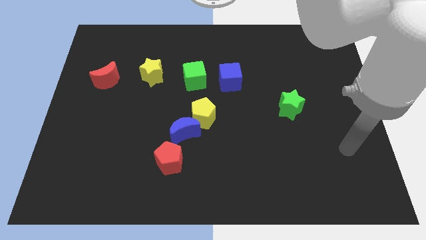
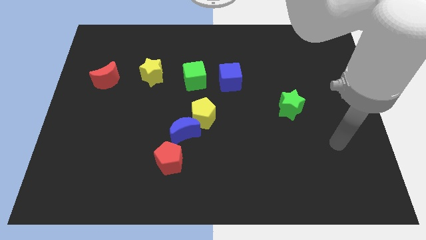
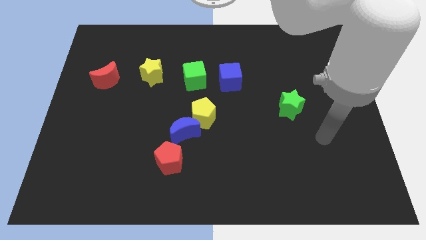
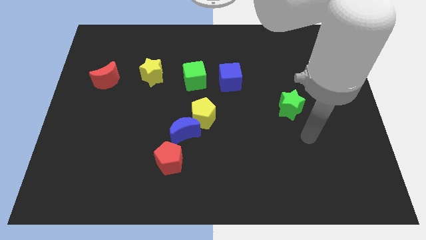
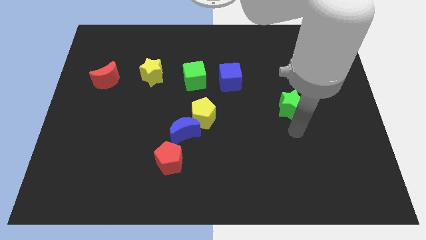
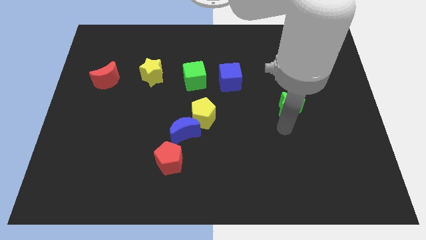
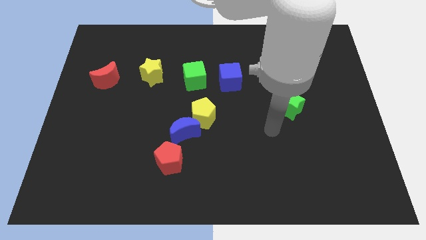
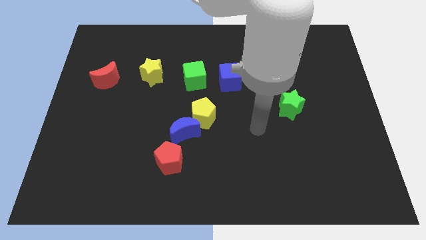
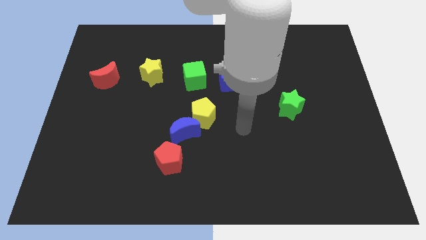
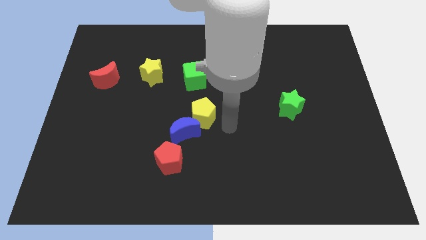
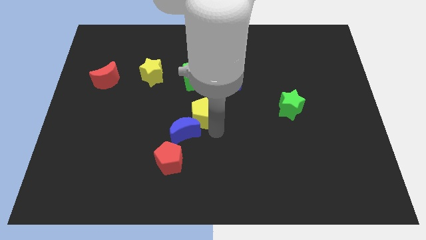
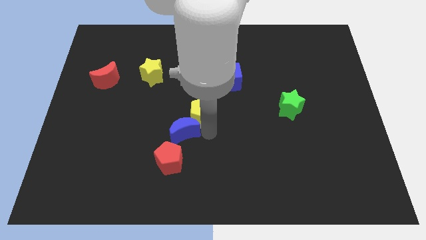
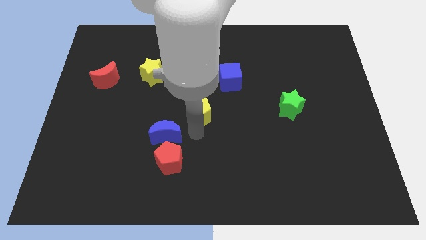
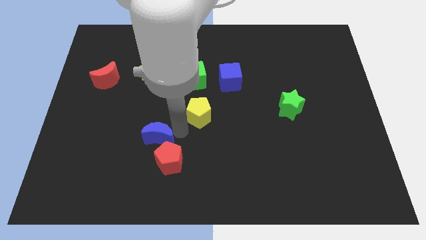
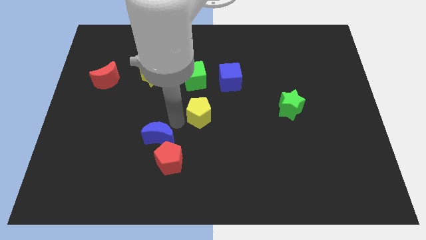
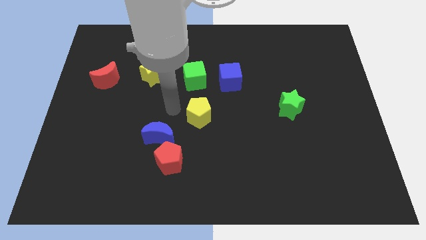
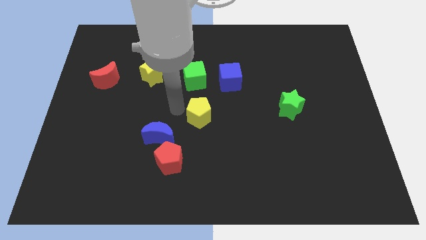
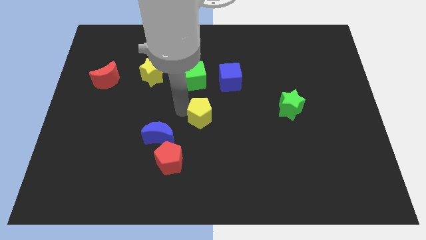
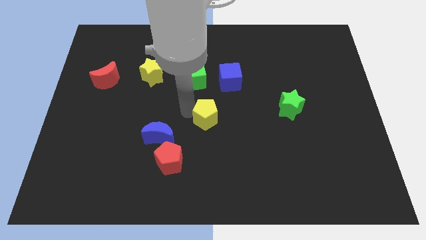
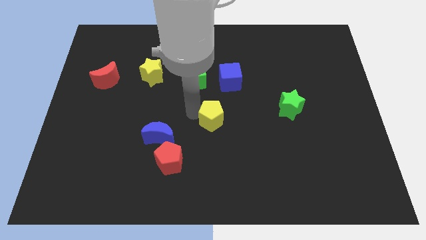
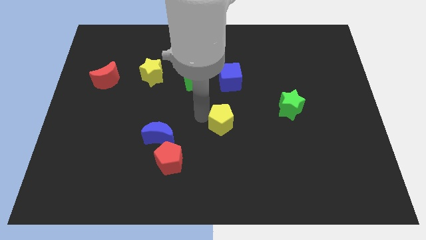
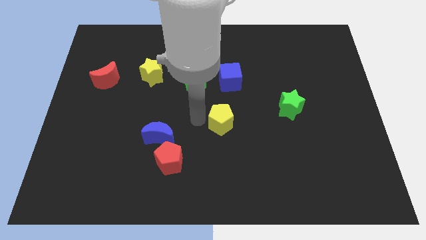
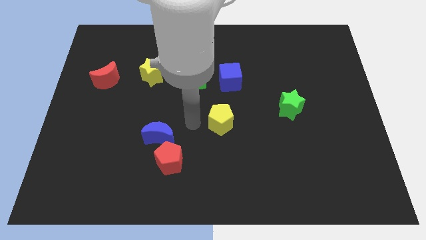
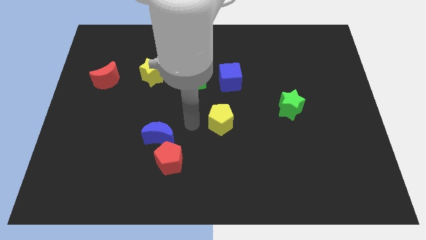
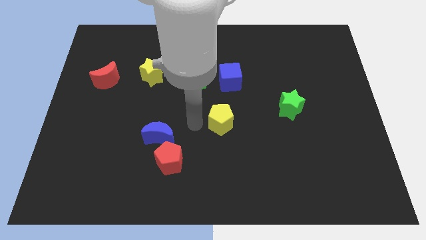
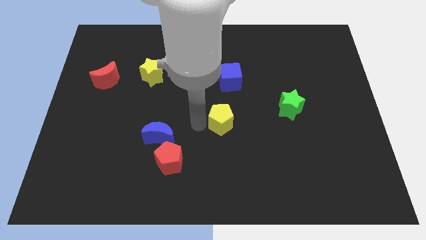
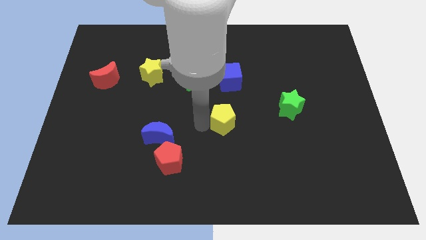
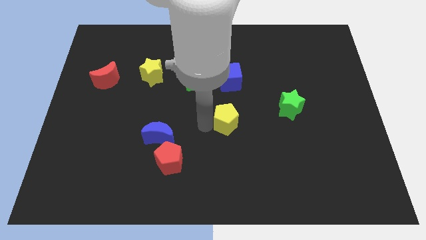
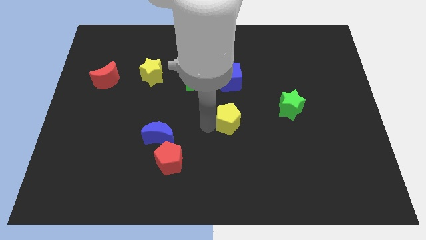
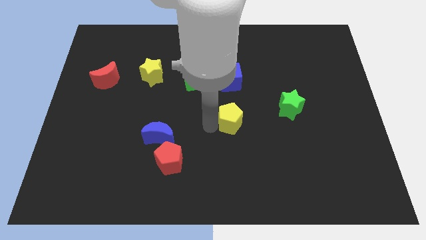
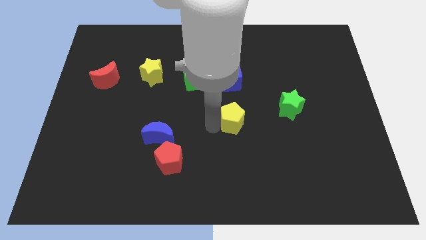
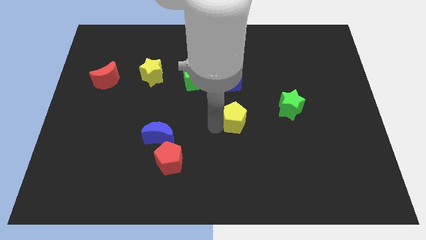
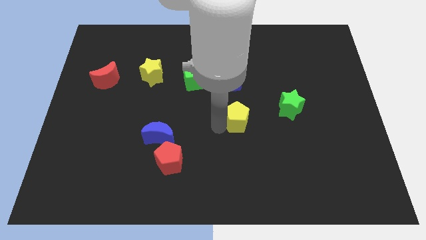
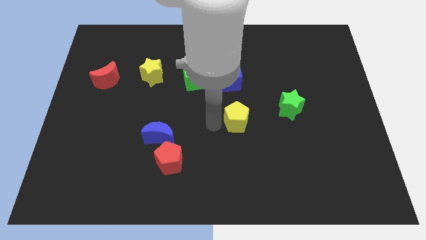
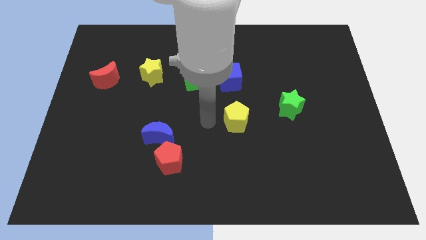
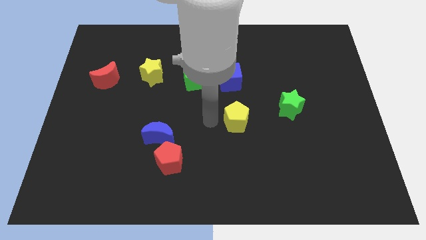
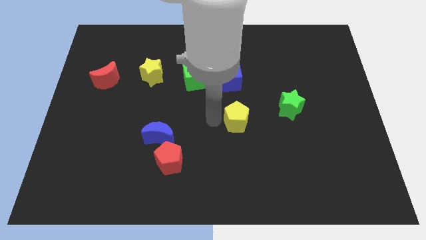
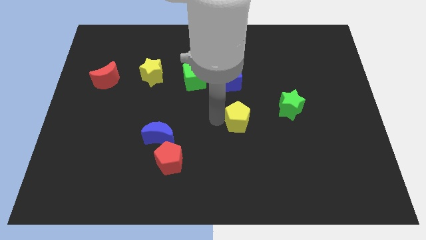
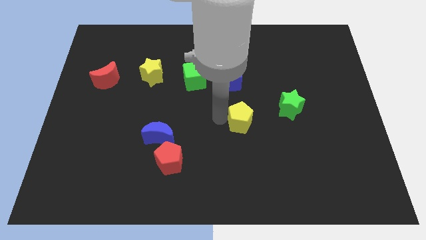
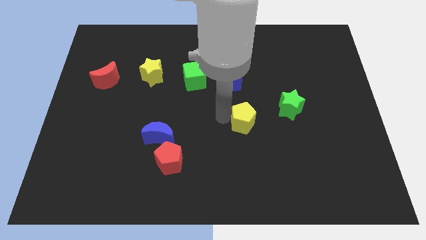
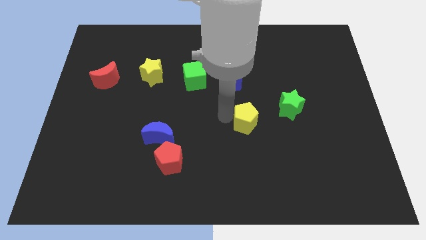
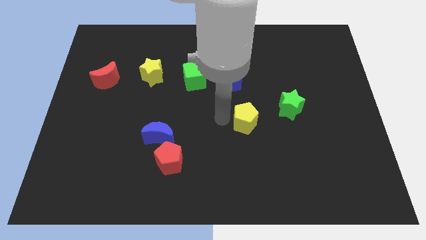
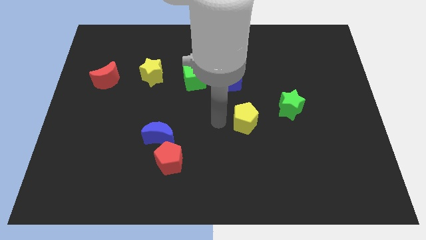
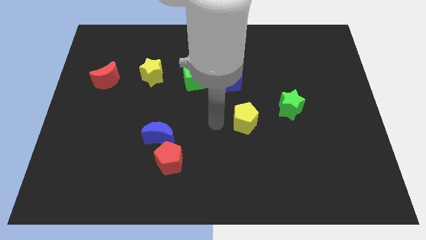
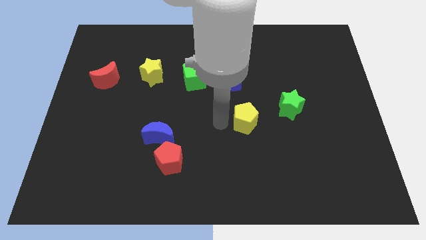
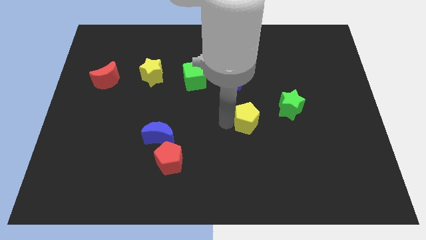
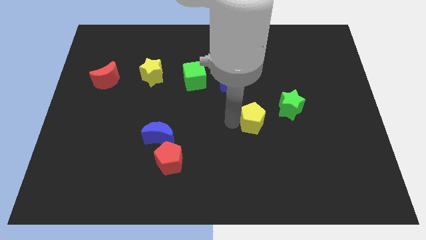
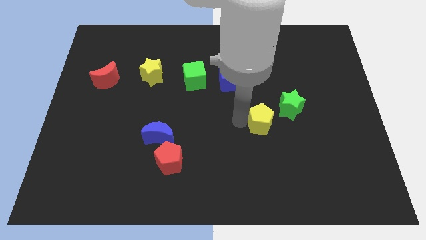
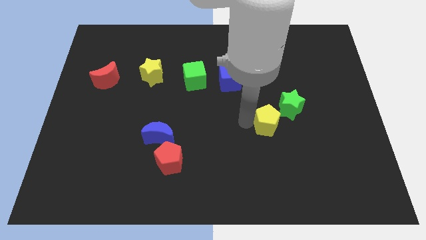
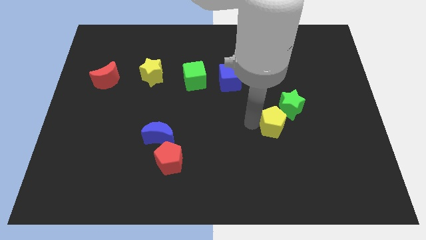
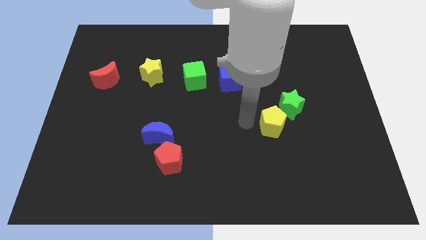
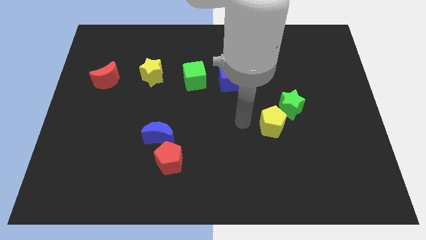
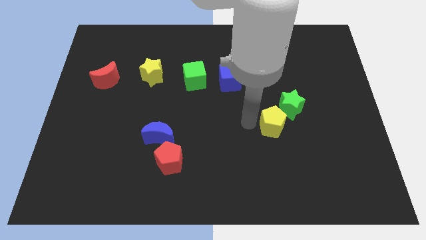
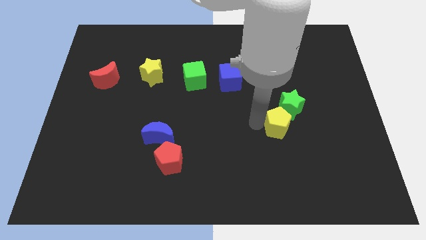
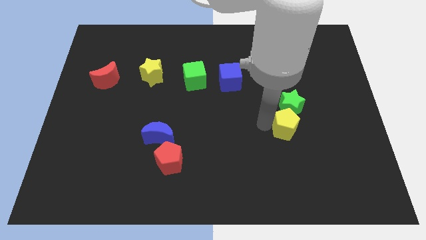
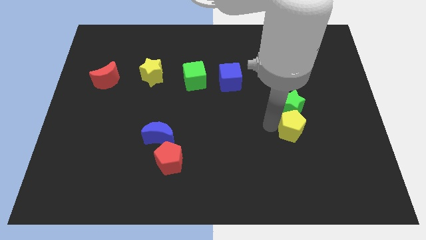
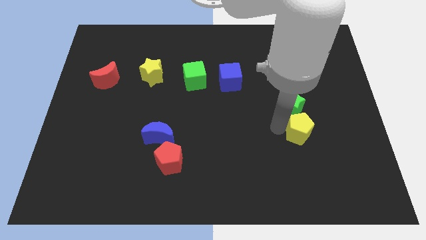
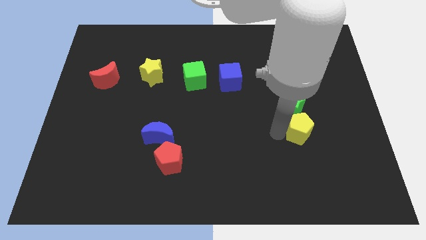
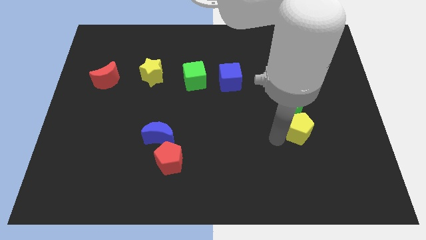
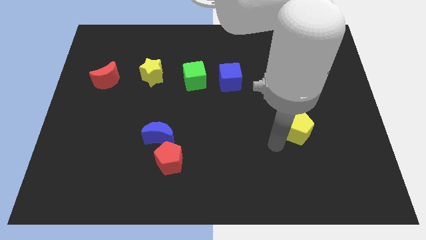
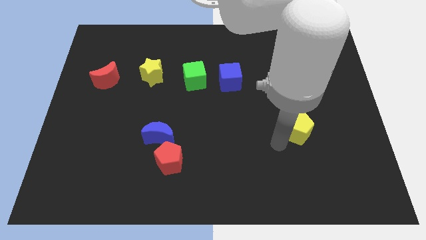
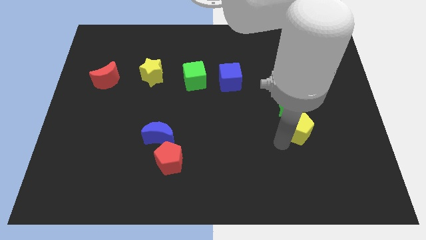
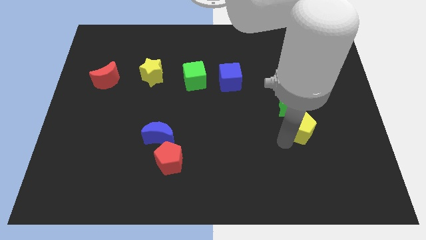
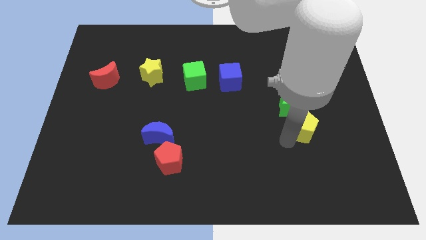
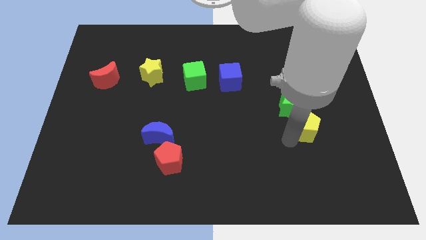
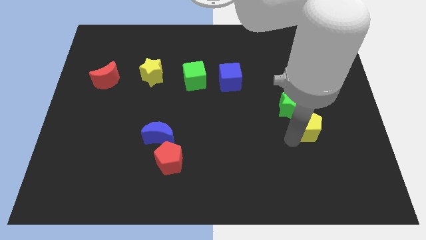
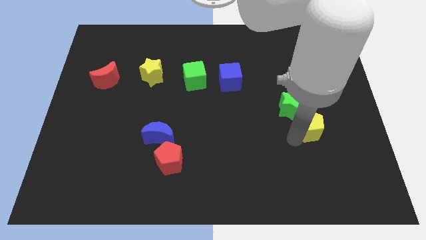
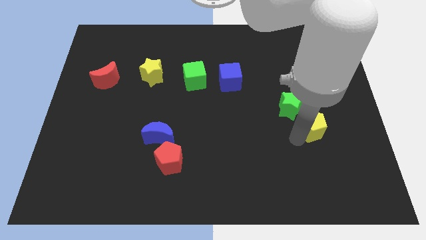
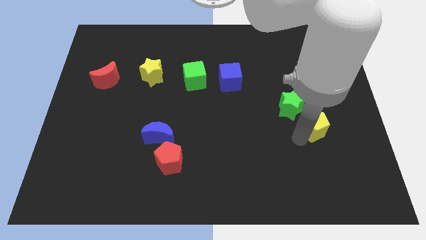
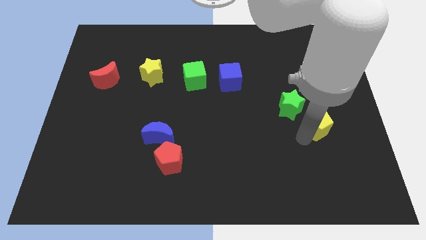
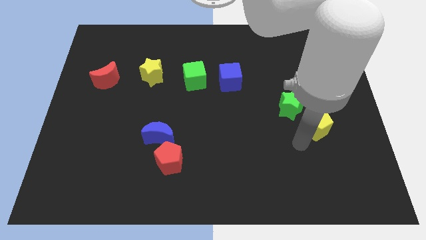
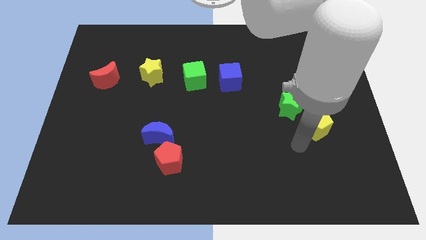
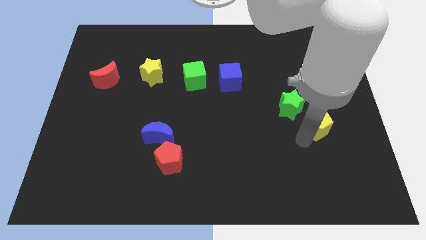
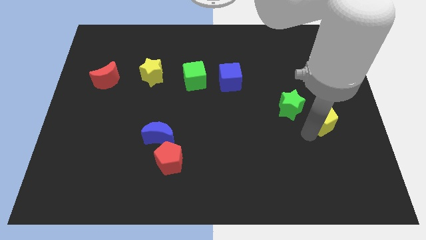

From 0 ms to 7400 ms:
move the yellow pentagon to the right of the green star
